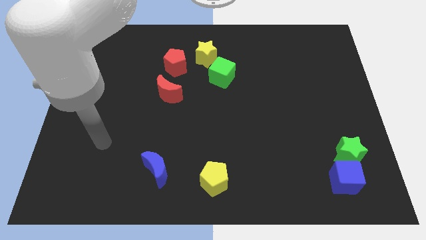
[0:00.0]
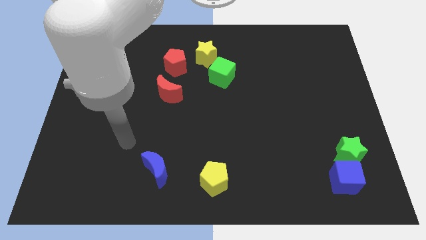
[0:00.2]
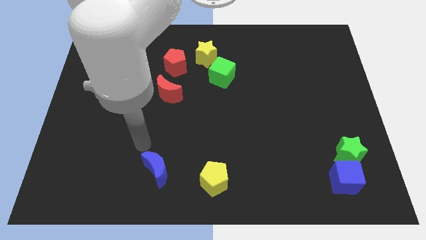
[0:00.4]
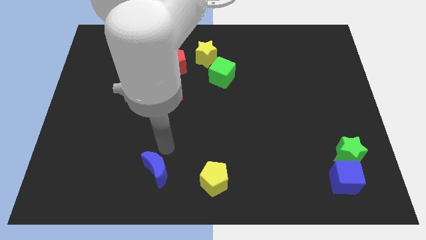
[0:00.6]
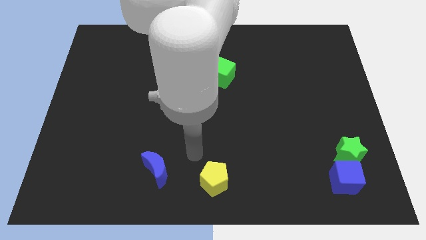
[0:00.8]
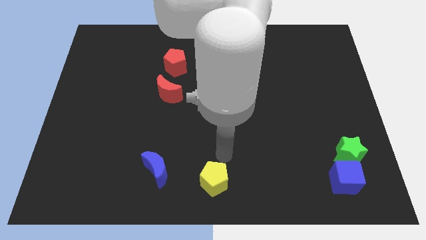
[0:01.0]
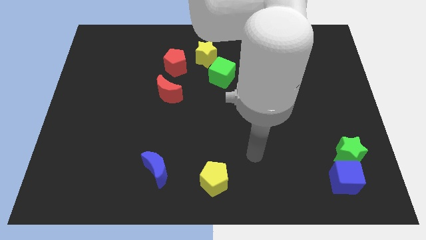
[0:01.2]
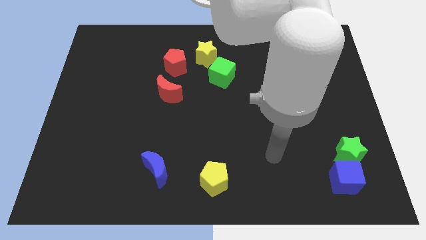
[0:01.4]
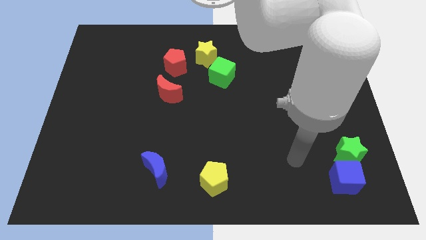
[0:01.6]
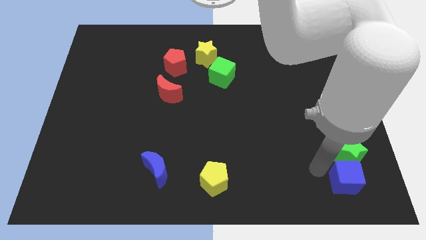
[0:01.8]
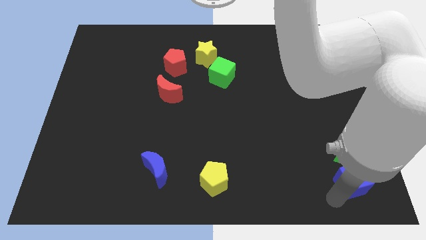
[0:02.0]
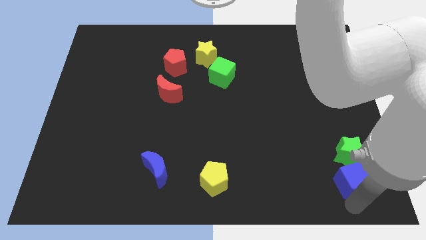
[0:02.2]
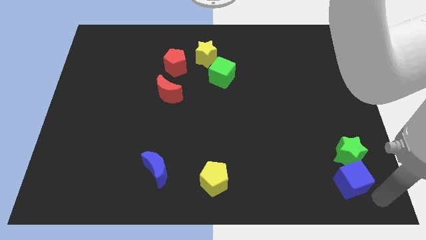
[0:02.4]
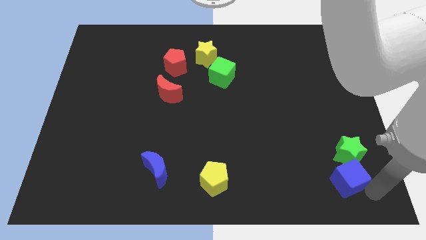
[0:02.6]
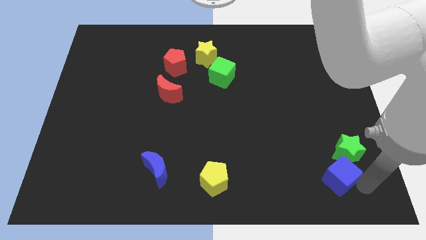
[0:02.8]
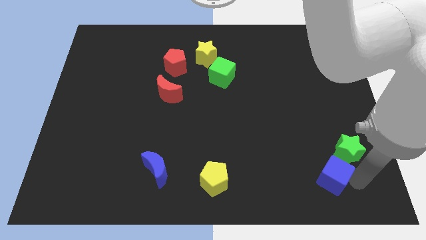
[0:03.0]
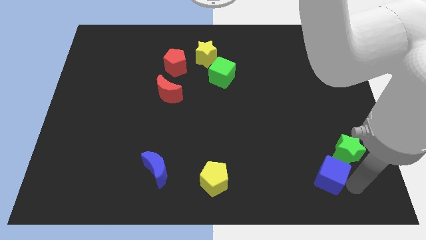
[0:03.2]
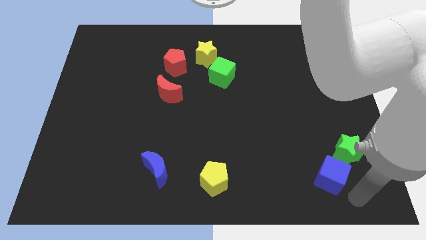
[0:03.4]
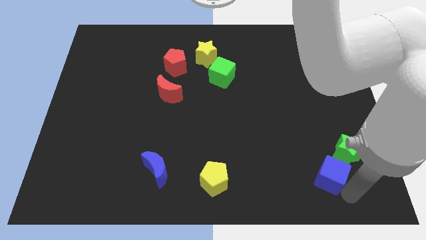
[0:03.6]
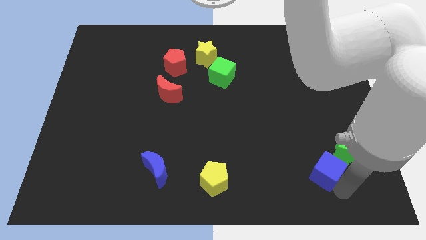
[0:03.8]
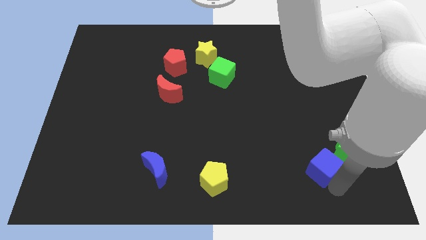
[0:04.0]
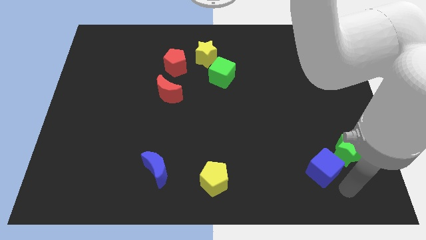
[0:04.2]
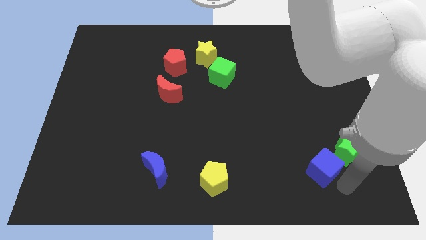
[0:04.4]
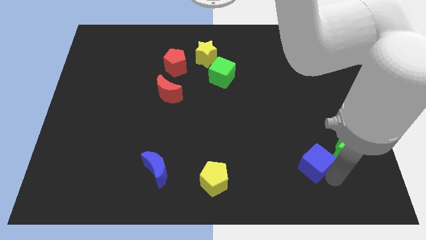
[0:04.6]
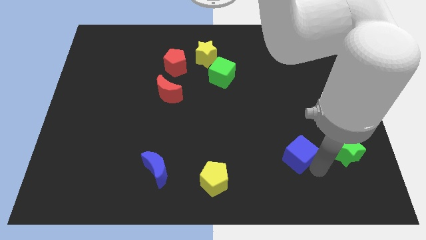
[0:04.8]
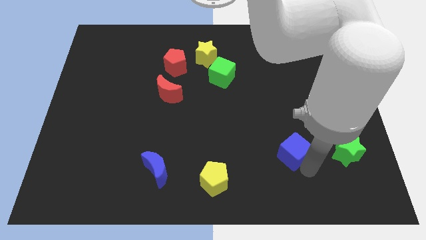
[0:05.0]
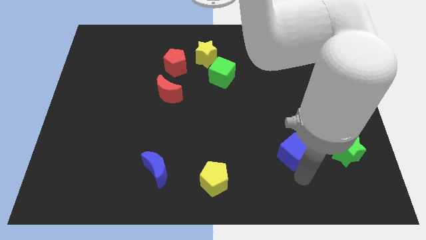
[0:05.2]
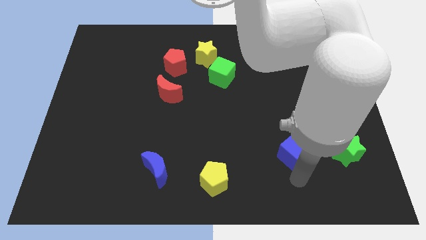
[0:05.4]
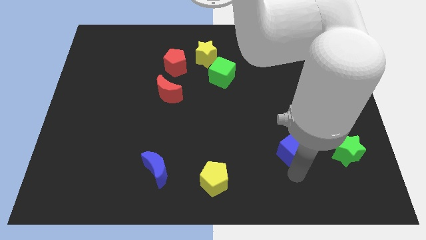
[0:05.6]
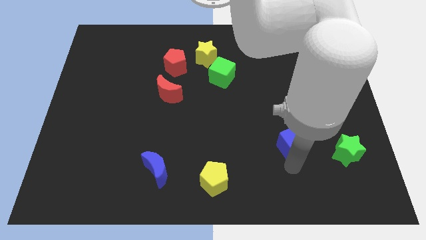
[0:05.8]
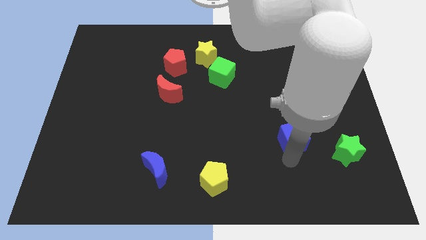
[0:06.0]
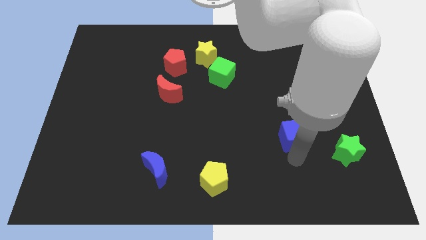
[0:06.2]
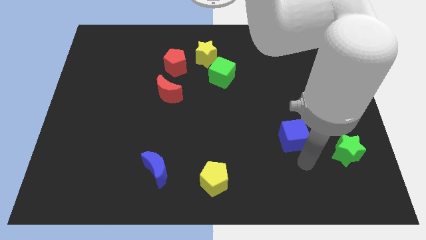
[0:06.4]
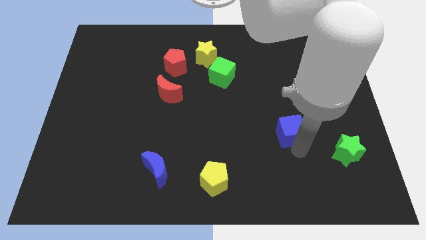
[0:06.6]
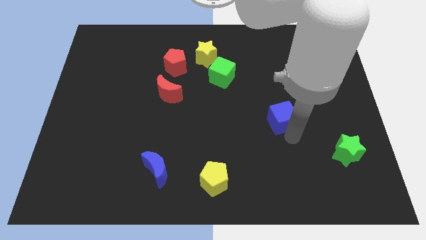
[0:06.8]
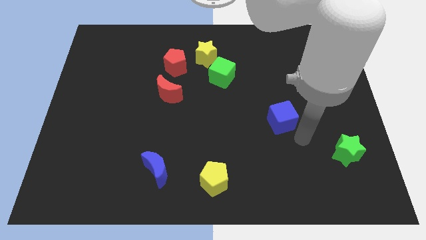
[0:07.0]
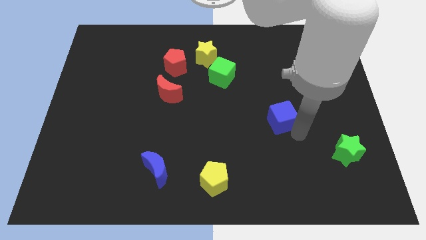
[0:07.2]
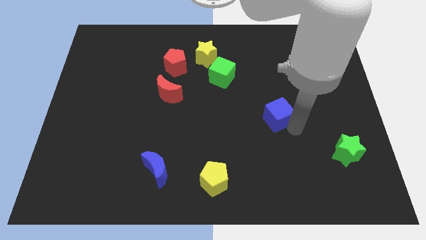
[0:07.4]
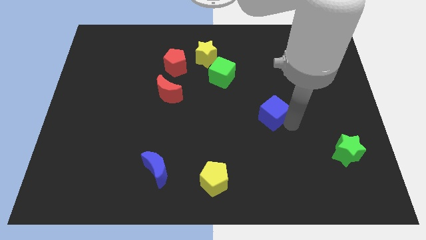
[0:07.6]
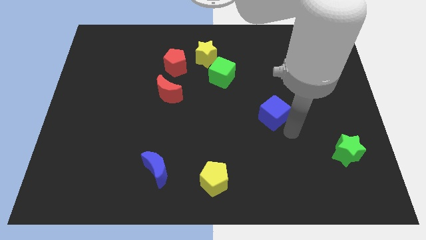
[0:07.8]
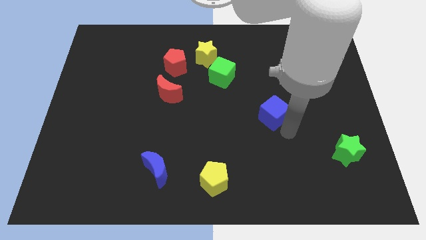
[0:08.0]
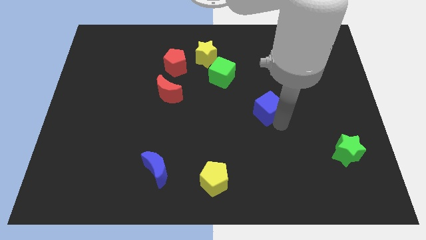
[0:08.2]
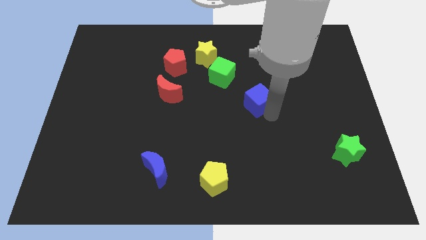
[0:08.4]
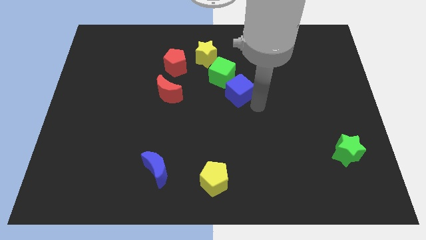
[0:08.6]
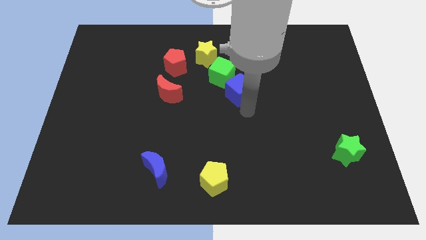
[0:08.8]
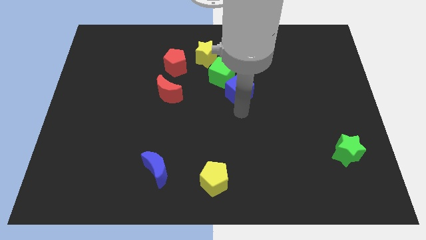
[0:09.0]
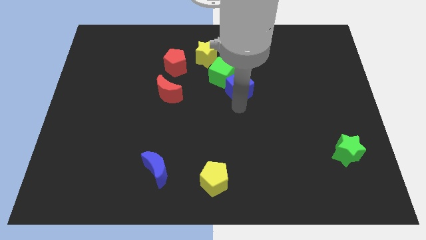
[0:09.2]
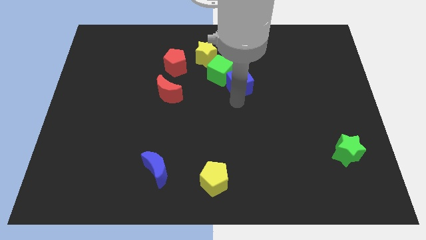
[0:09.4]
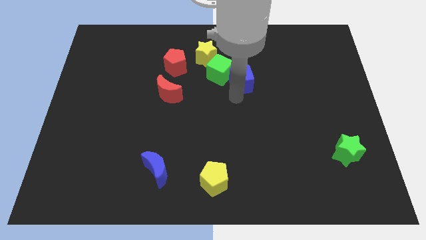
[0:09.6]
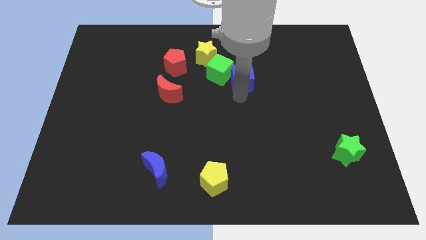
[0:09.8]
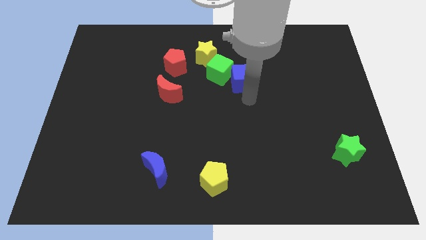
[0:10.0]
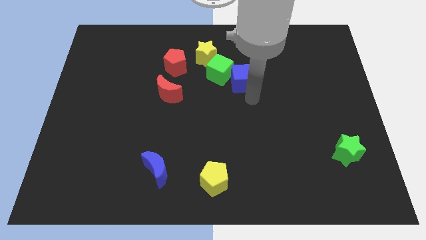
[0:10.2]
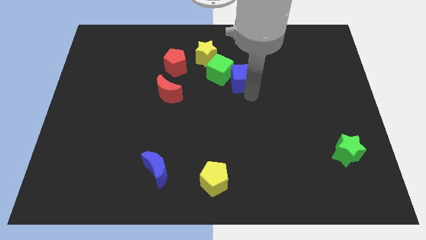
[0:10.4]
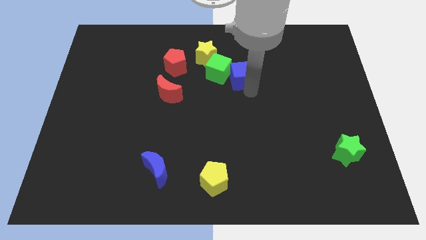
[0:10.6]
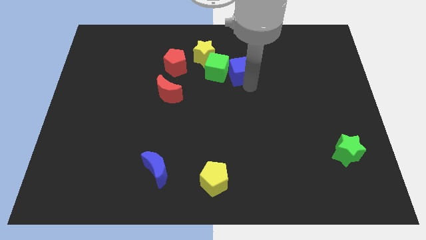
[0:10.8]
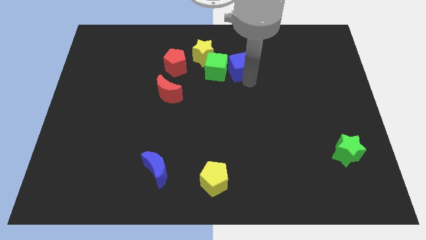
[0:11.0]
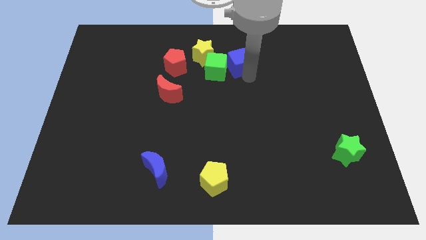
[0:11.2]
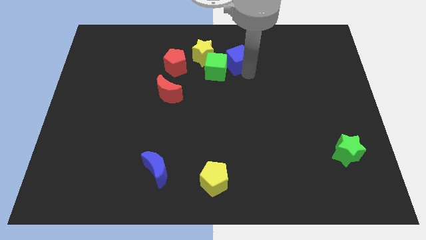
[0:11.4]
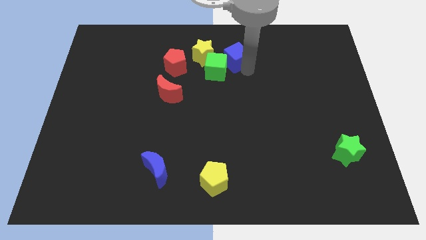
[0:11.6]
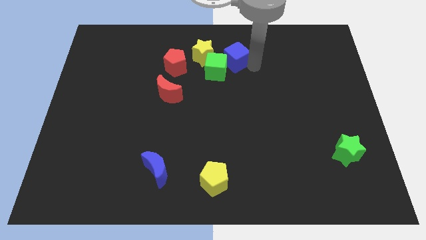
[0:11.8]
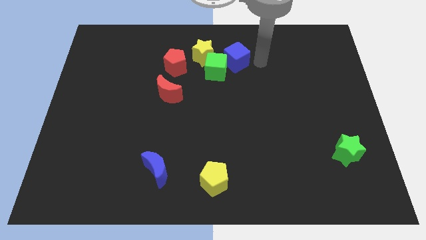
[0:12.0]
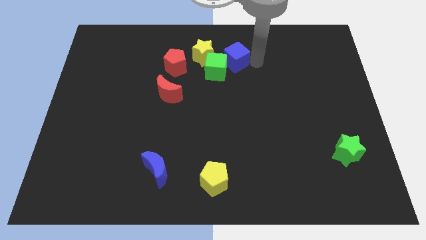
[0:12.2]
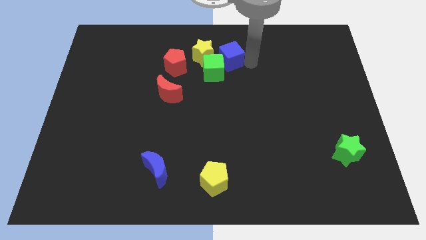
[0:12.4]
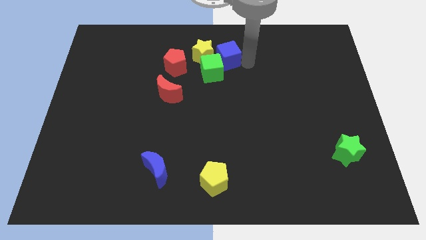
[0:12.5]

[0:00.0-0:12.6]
slide the blue cube close to the yellow star

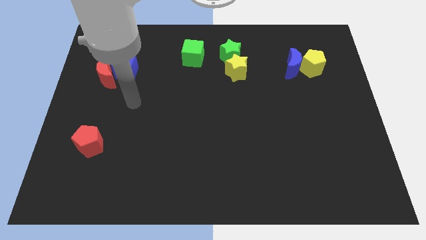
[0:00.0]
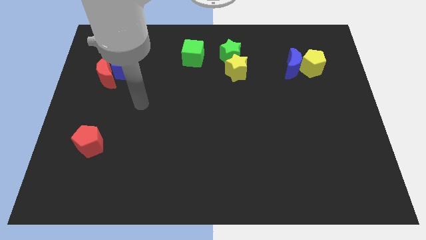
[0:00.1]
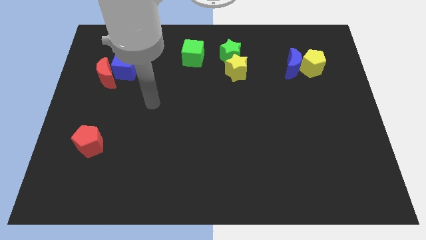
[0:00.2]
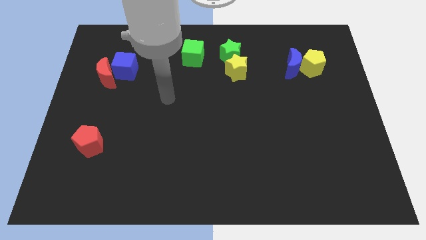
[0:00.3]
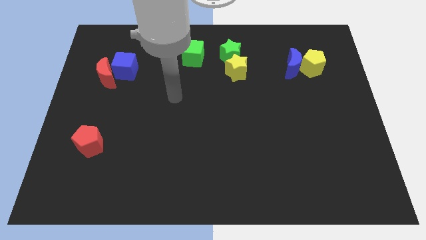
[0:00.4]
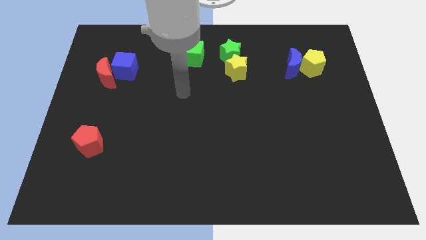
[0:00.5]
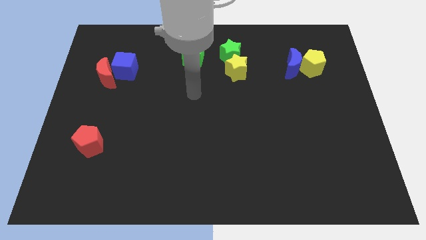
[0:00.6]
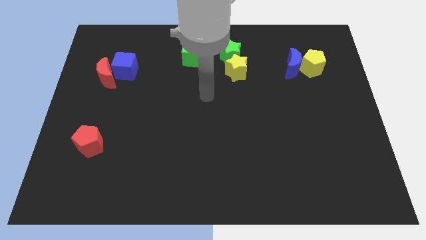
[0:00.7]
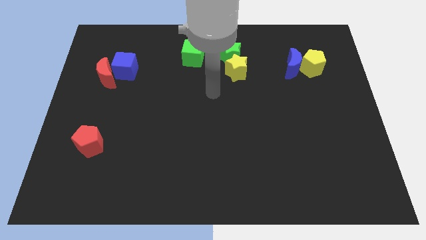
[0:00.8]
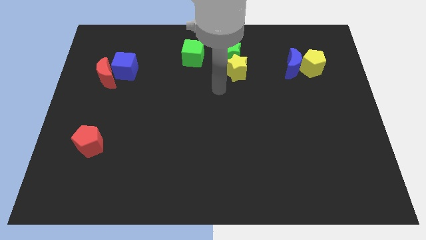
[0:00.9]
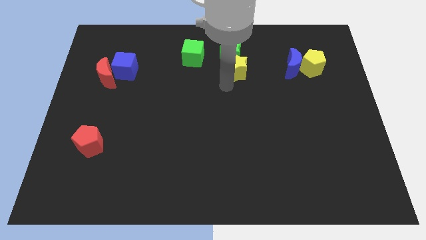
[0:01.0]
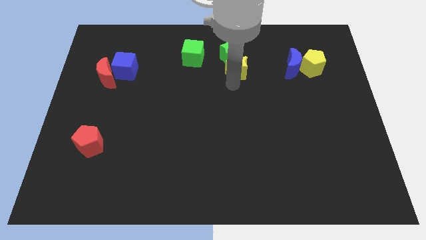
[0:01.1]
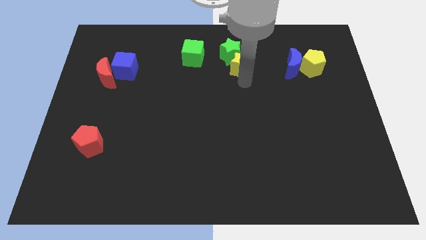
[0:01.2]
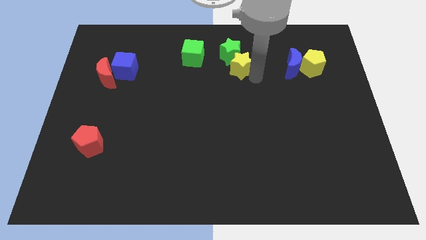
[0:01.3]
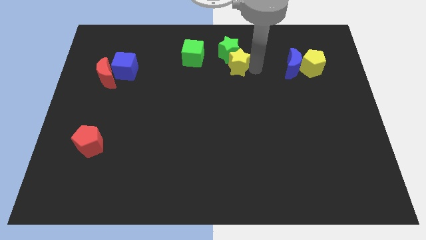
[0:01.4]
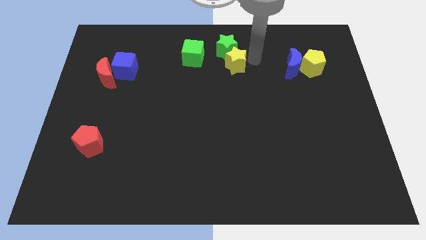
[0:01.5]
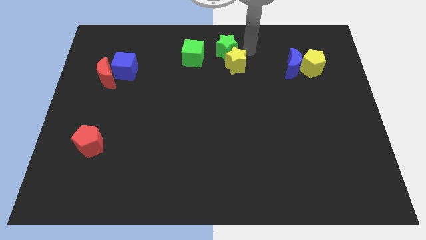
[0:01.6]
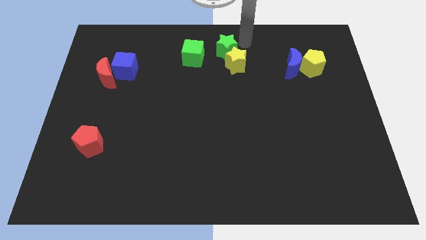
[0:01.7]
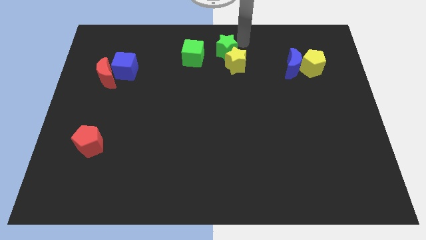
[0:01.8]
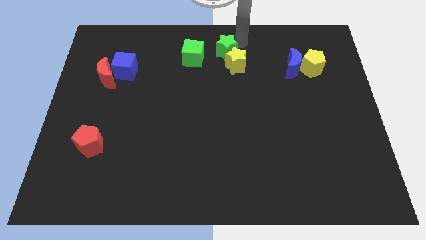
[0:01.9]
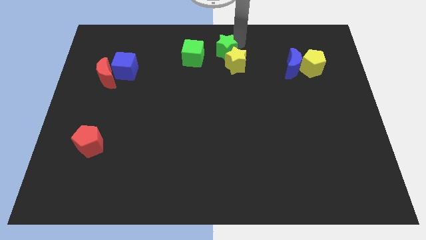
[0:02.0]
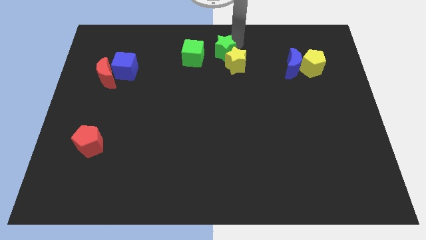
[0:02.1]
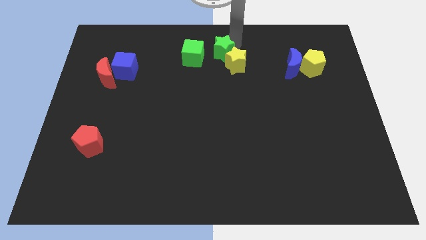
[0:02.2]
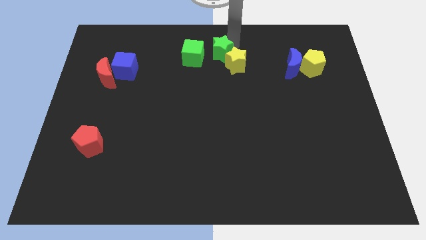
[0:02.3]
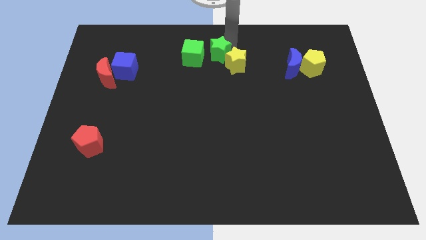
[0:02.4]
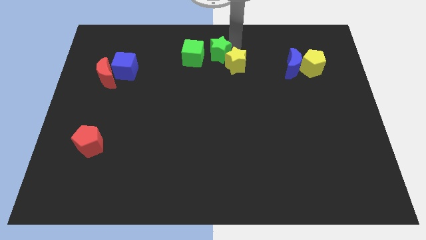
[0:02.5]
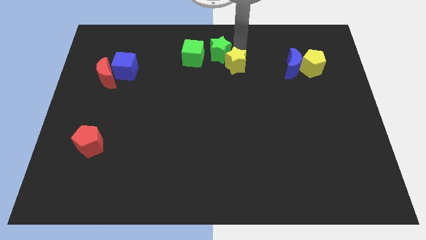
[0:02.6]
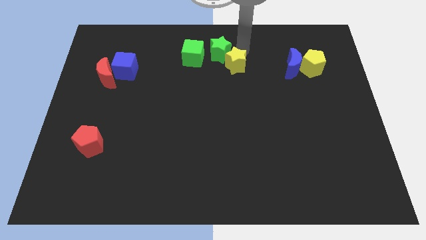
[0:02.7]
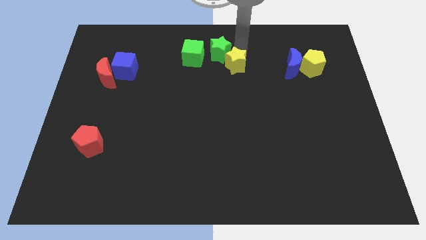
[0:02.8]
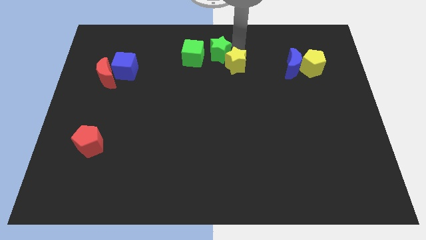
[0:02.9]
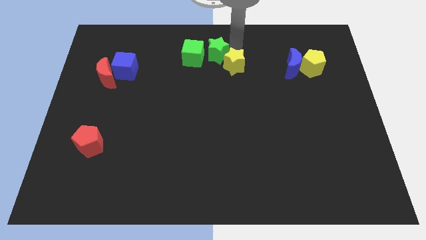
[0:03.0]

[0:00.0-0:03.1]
slide the green star next to the green cube
